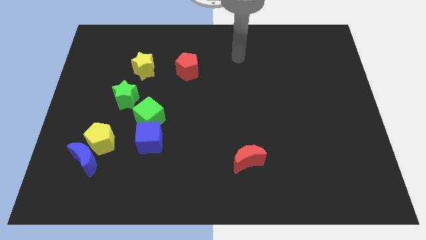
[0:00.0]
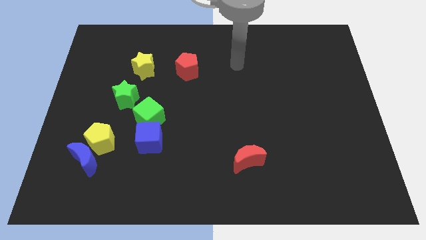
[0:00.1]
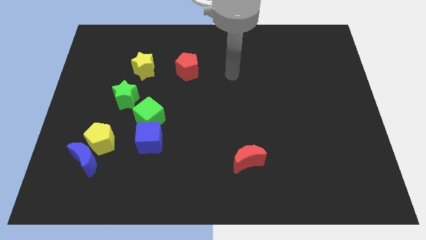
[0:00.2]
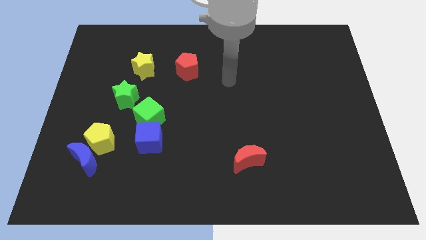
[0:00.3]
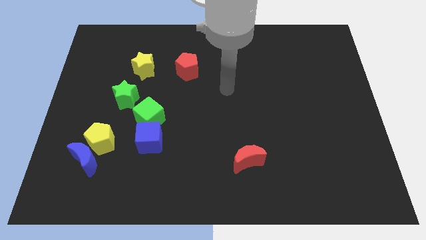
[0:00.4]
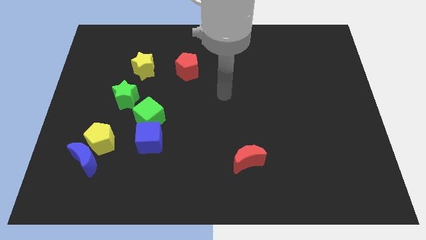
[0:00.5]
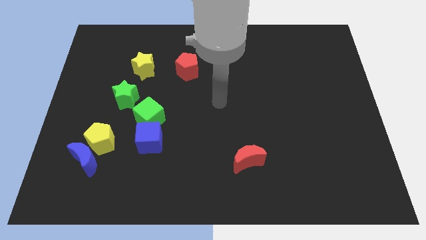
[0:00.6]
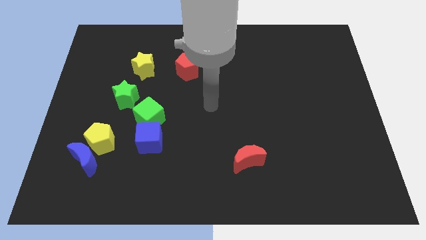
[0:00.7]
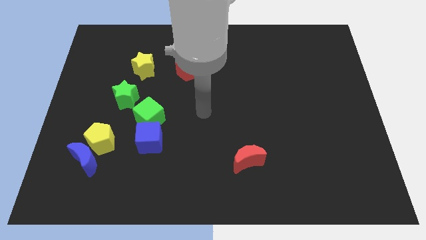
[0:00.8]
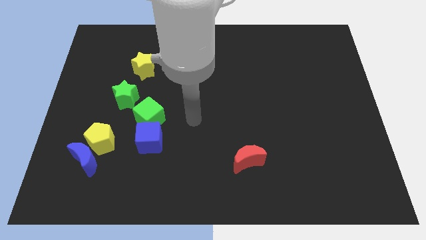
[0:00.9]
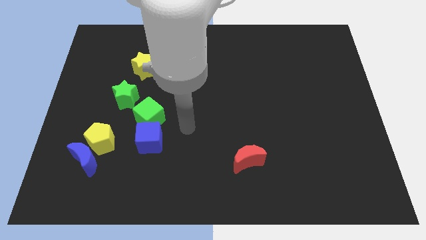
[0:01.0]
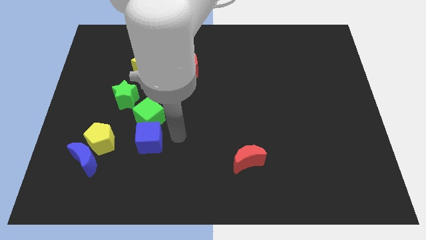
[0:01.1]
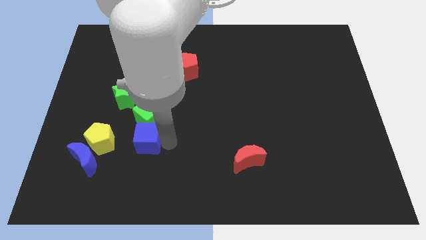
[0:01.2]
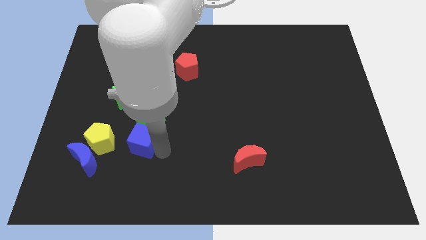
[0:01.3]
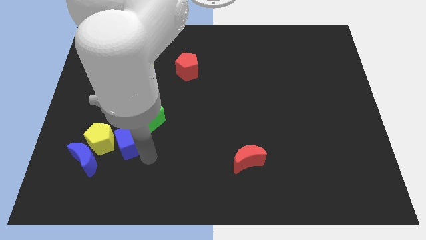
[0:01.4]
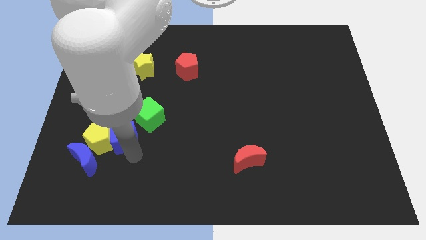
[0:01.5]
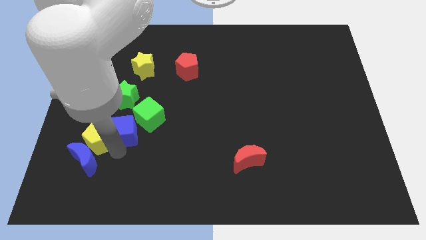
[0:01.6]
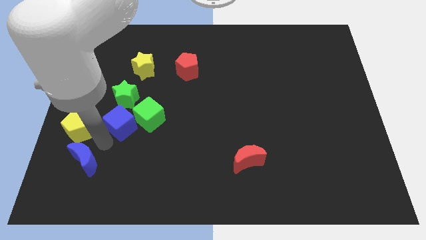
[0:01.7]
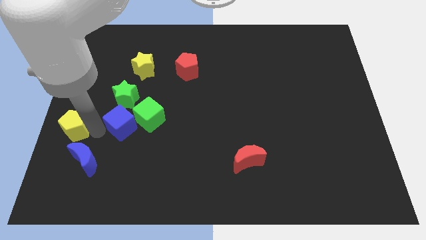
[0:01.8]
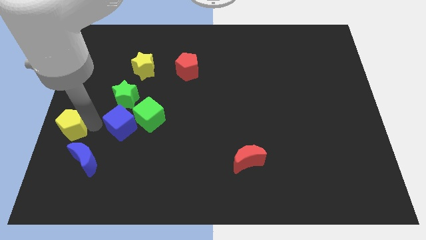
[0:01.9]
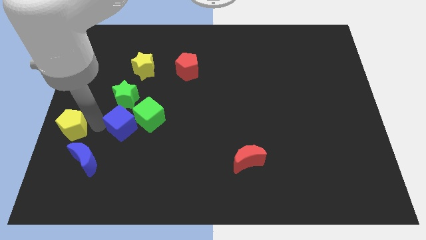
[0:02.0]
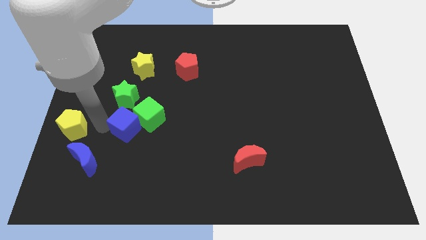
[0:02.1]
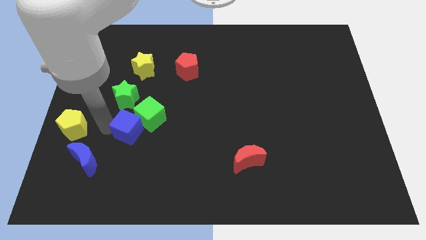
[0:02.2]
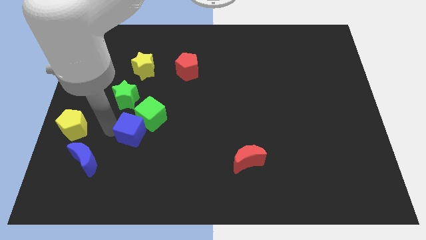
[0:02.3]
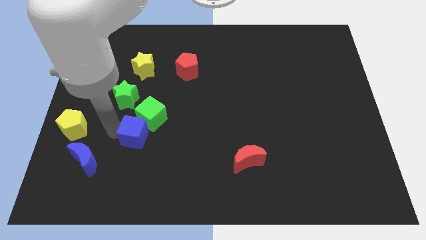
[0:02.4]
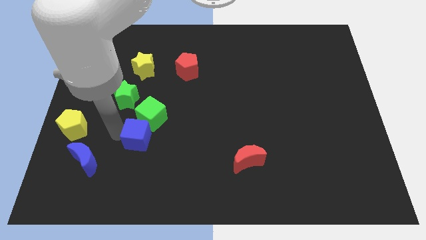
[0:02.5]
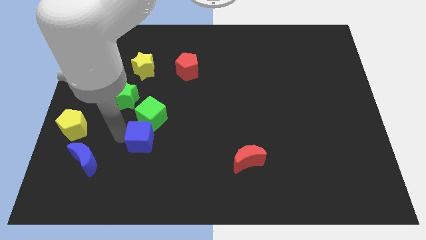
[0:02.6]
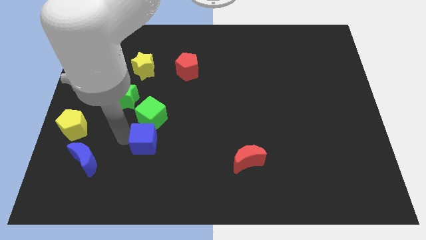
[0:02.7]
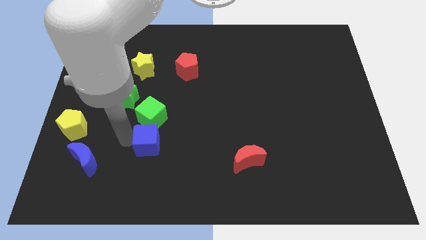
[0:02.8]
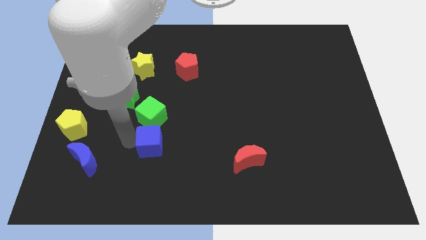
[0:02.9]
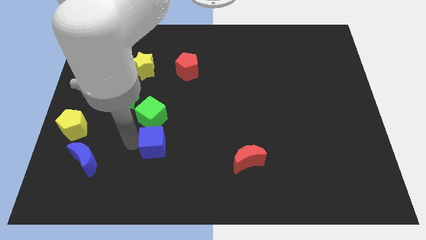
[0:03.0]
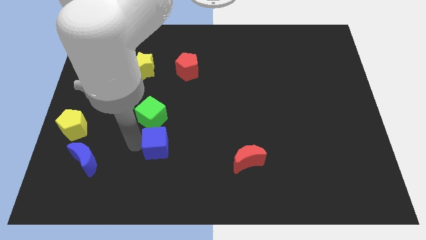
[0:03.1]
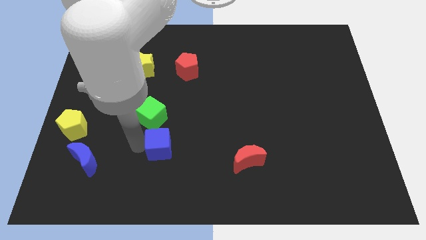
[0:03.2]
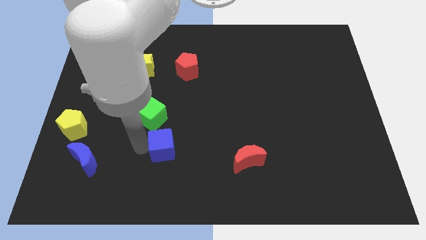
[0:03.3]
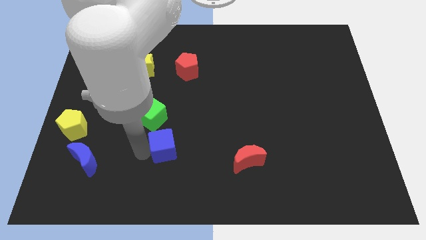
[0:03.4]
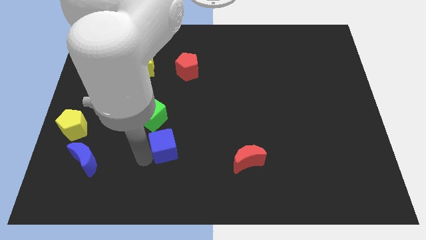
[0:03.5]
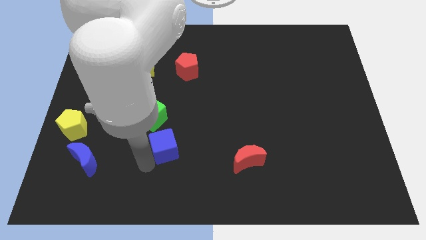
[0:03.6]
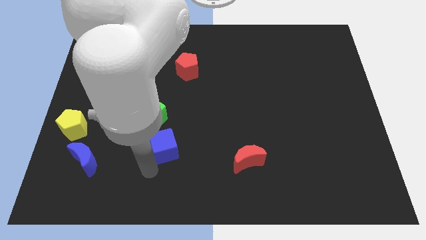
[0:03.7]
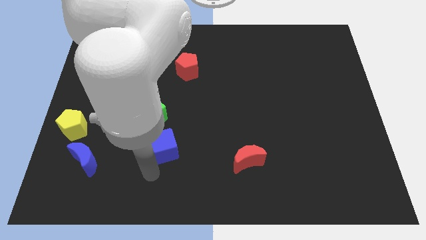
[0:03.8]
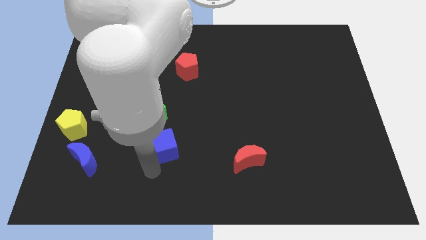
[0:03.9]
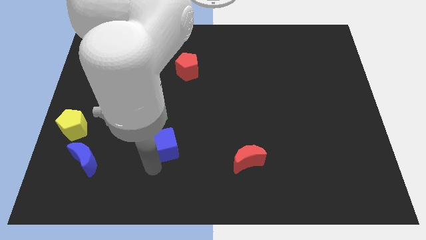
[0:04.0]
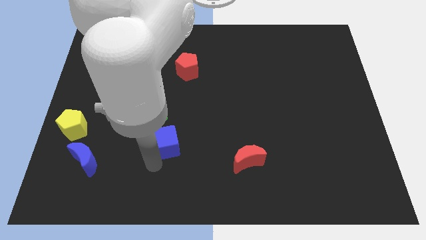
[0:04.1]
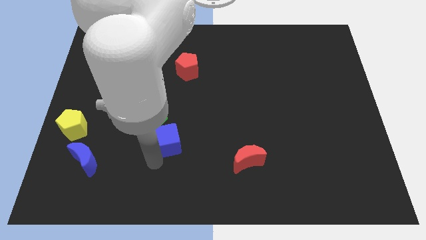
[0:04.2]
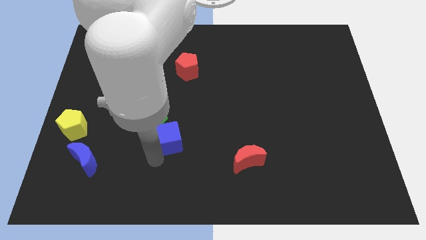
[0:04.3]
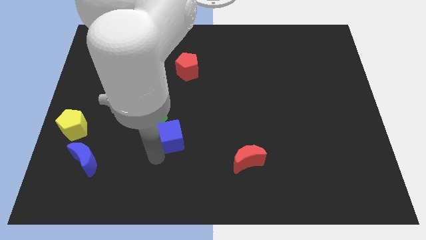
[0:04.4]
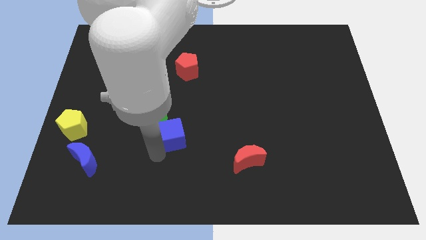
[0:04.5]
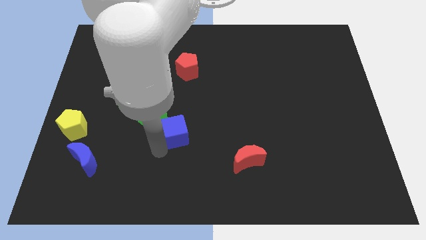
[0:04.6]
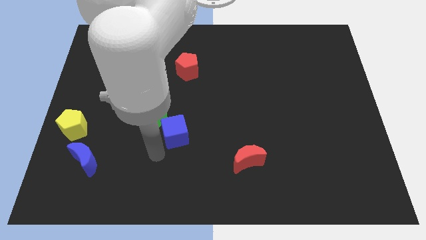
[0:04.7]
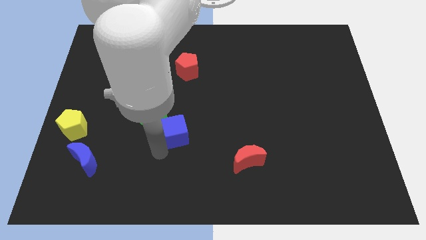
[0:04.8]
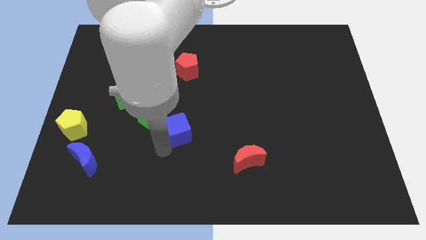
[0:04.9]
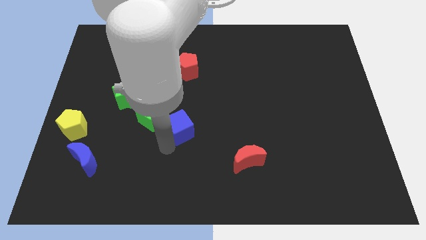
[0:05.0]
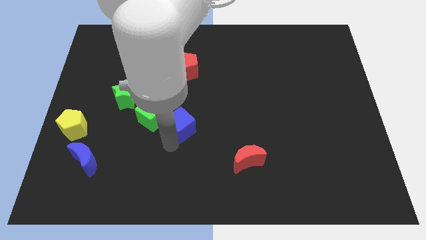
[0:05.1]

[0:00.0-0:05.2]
move the blue cube up and right diagonally a bit

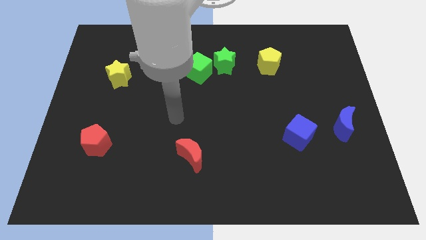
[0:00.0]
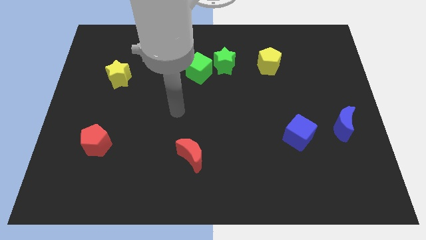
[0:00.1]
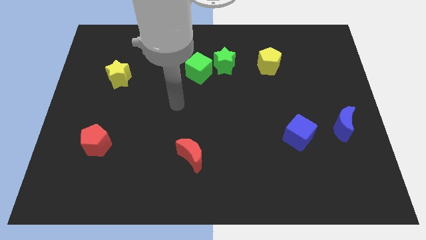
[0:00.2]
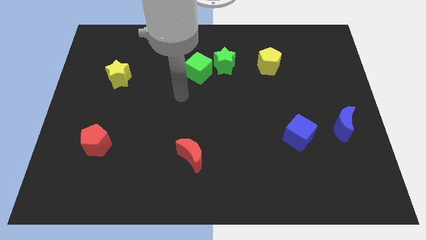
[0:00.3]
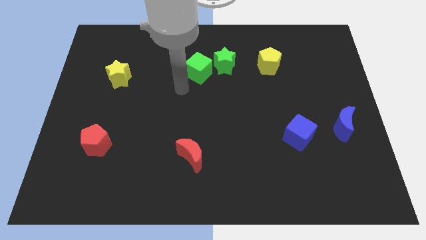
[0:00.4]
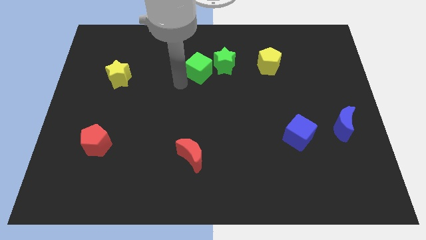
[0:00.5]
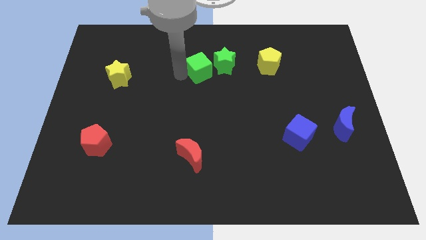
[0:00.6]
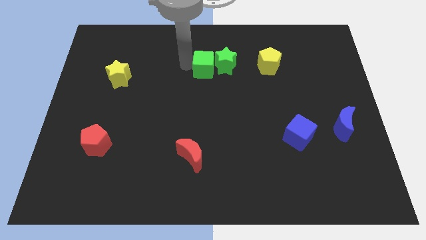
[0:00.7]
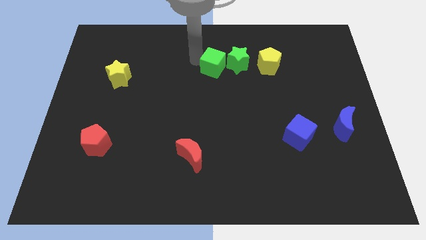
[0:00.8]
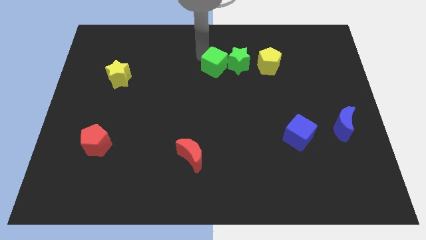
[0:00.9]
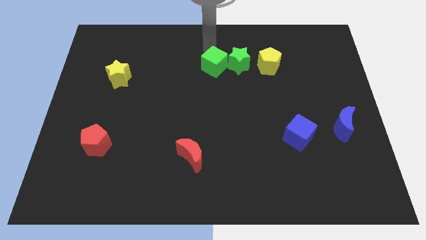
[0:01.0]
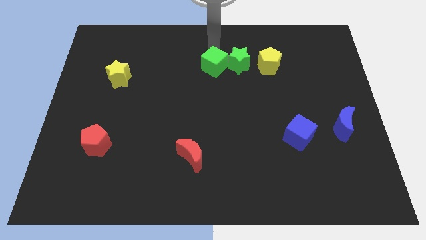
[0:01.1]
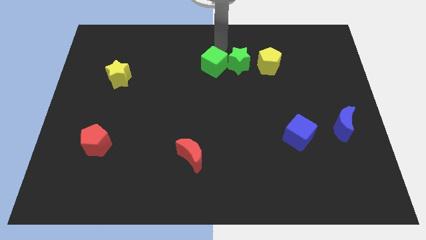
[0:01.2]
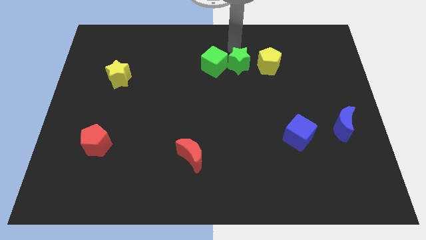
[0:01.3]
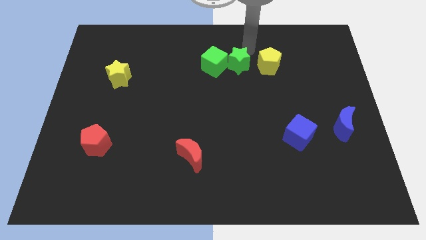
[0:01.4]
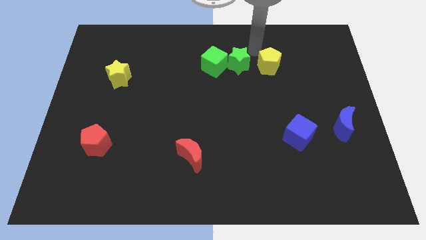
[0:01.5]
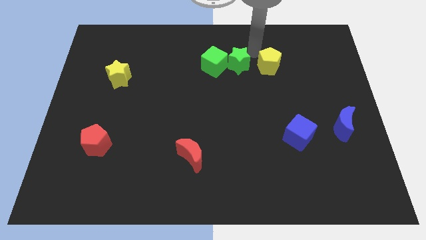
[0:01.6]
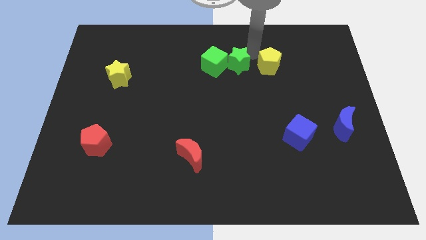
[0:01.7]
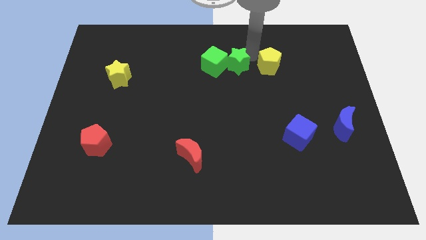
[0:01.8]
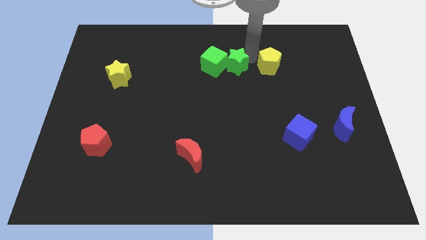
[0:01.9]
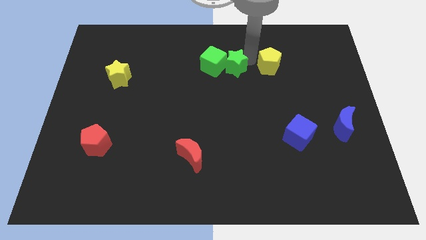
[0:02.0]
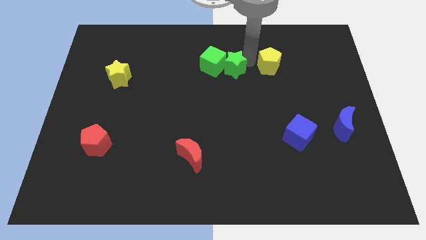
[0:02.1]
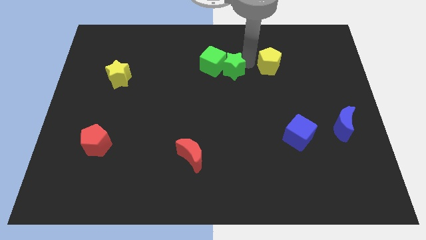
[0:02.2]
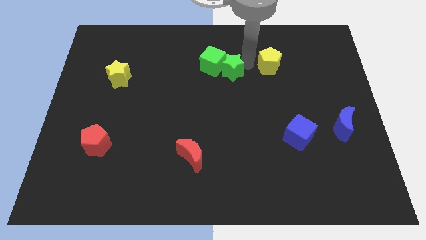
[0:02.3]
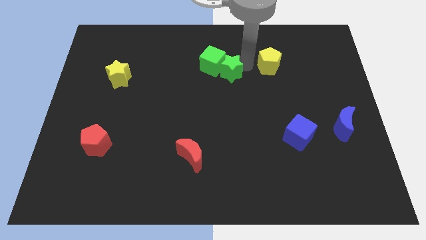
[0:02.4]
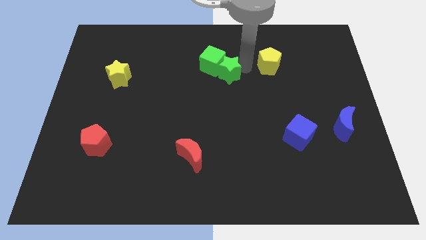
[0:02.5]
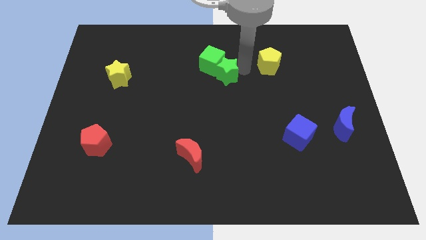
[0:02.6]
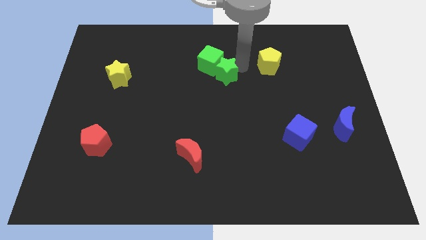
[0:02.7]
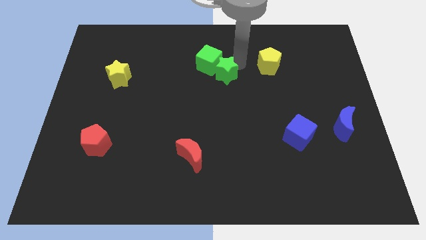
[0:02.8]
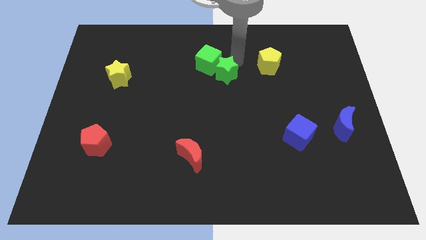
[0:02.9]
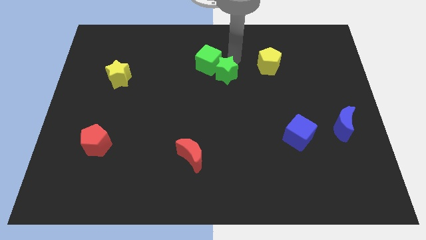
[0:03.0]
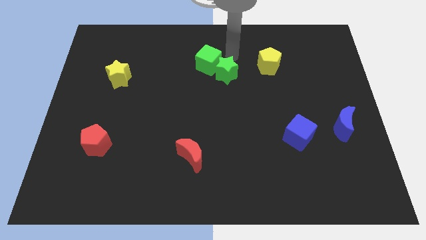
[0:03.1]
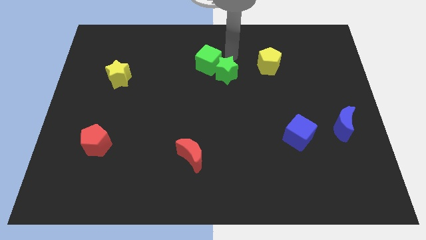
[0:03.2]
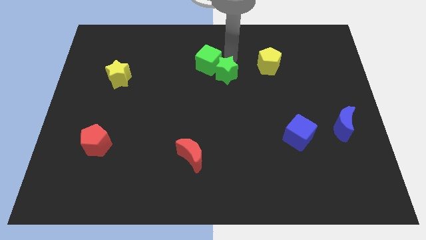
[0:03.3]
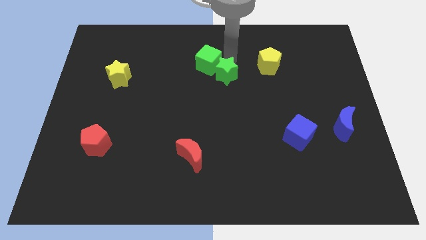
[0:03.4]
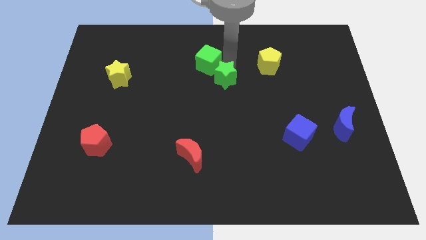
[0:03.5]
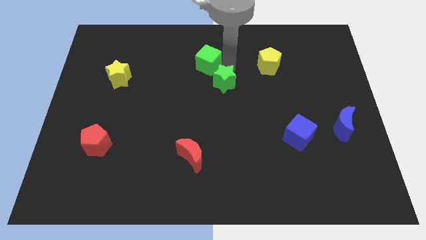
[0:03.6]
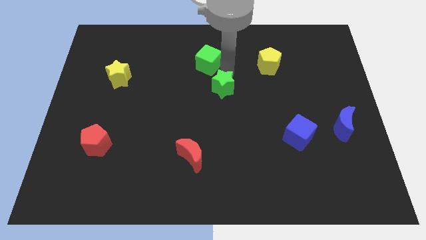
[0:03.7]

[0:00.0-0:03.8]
slide the green star a little bit down
